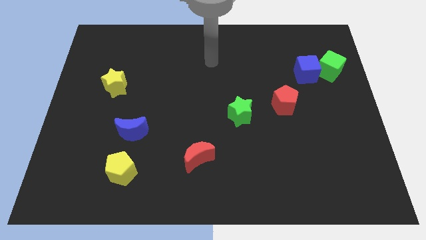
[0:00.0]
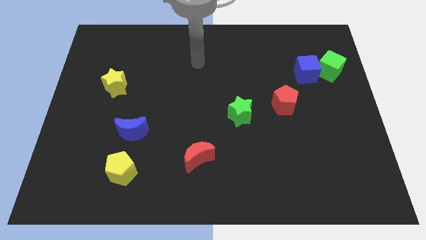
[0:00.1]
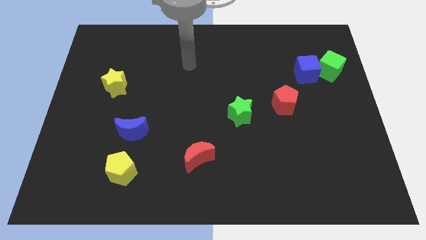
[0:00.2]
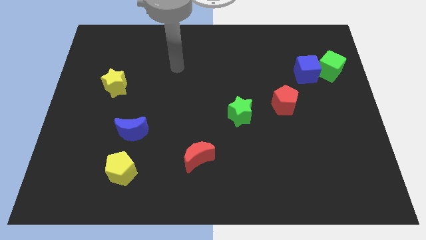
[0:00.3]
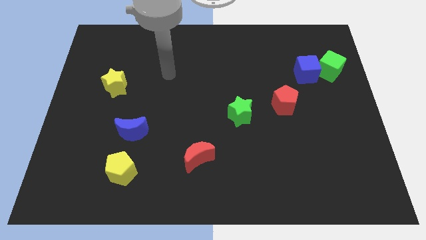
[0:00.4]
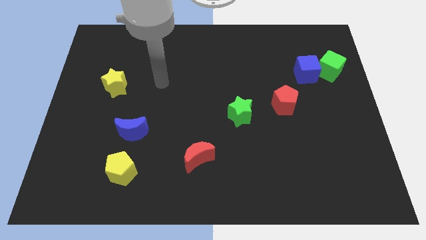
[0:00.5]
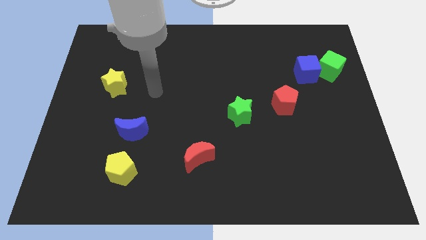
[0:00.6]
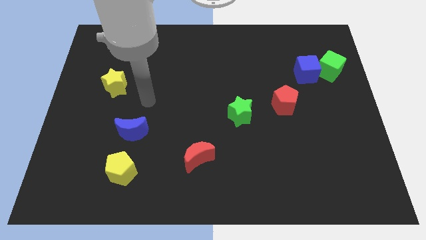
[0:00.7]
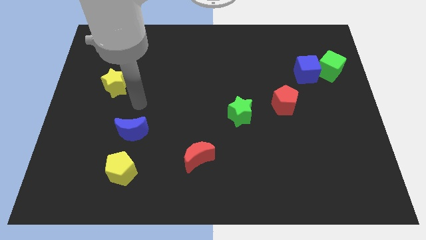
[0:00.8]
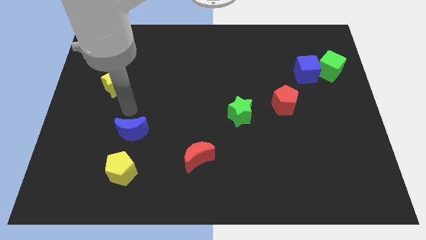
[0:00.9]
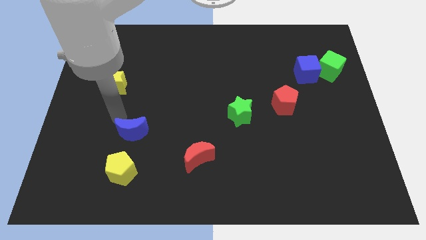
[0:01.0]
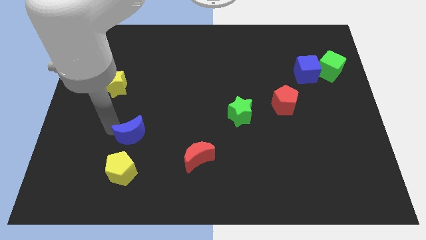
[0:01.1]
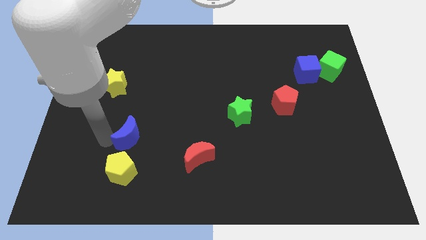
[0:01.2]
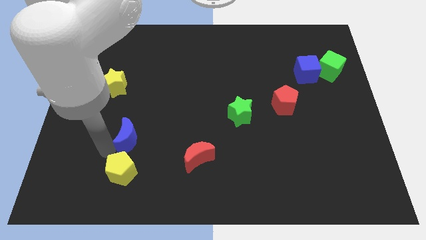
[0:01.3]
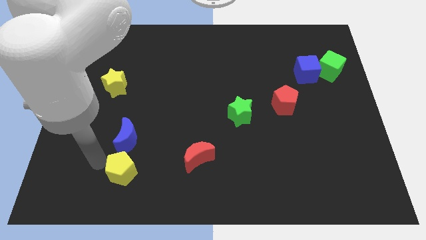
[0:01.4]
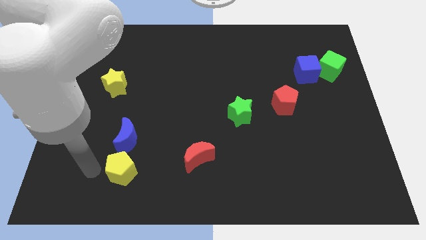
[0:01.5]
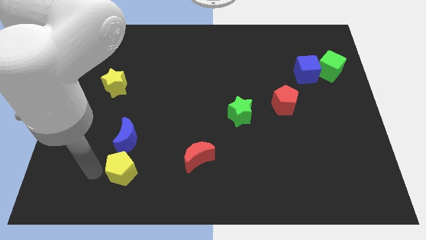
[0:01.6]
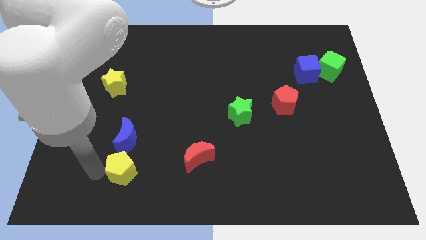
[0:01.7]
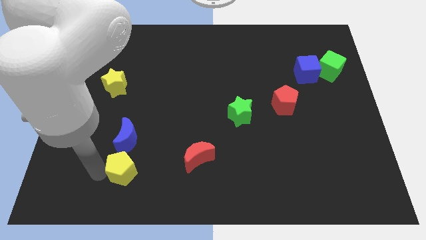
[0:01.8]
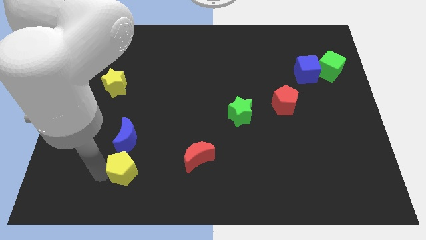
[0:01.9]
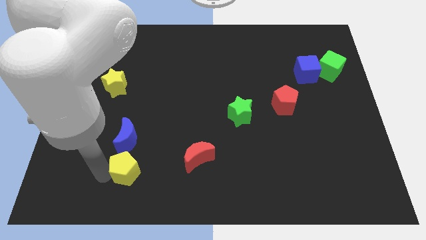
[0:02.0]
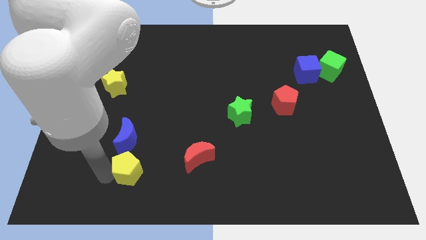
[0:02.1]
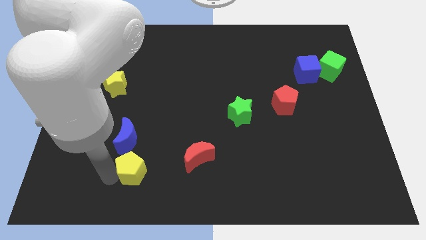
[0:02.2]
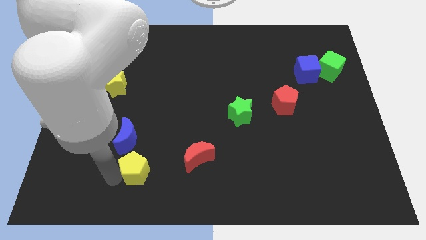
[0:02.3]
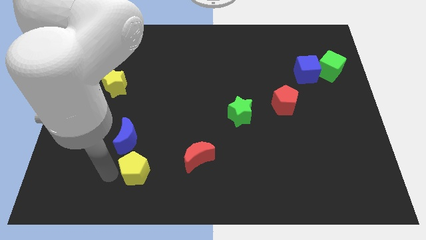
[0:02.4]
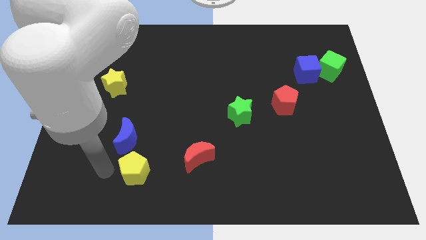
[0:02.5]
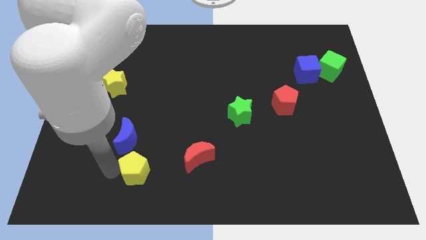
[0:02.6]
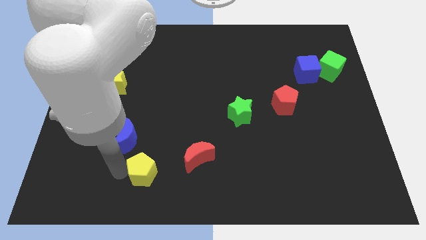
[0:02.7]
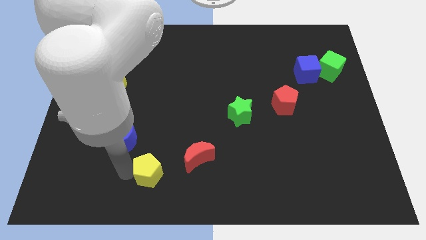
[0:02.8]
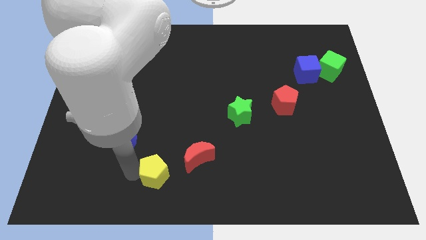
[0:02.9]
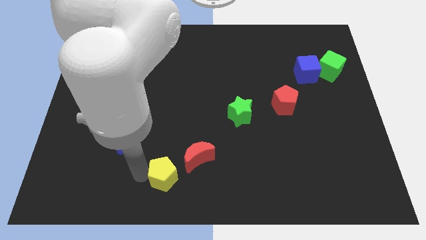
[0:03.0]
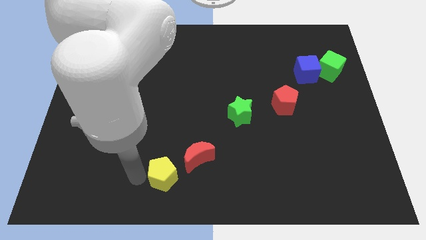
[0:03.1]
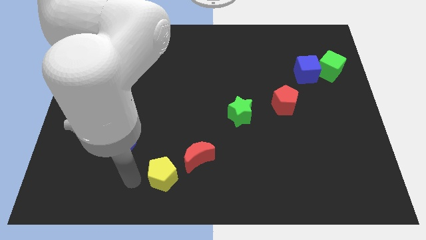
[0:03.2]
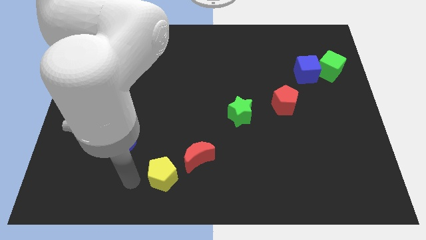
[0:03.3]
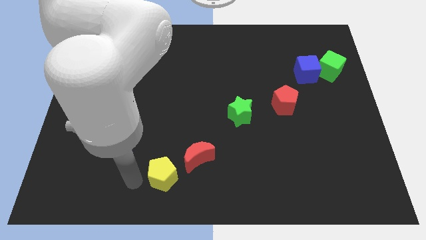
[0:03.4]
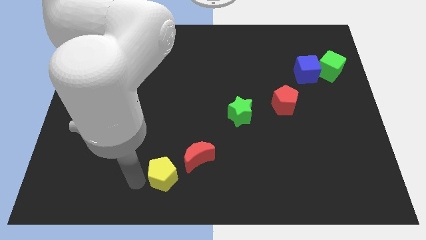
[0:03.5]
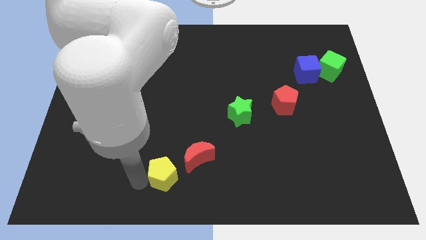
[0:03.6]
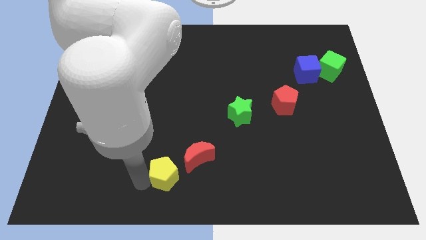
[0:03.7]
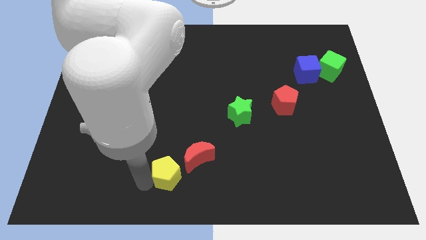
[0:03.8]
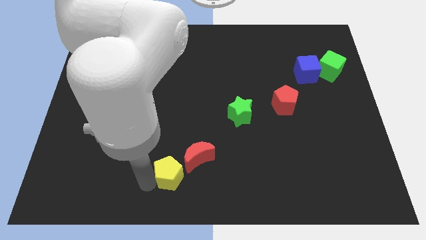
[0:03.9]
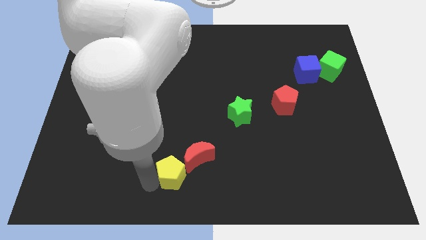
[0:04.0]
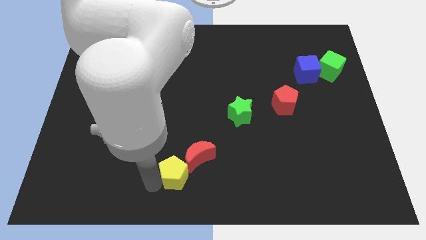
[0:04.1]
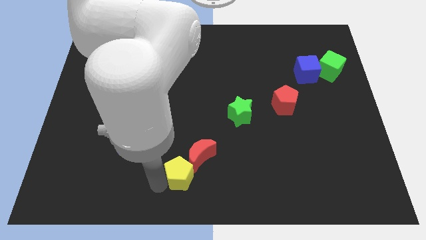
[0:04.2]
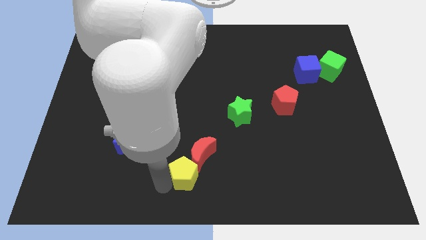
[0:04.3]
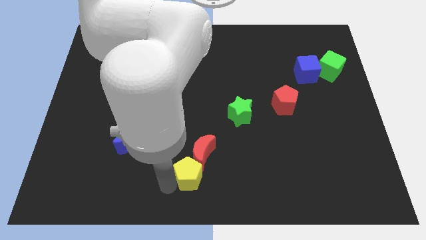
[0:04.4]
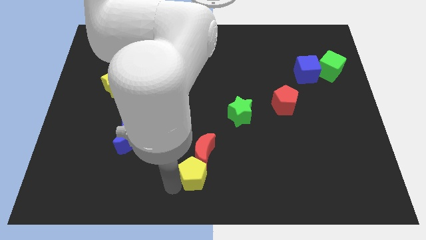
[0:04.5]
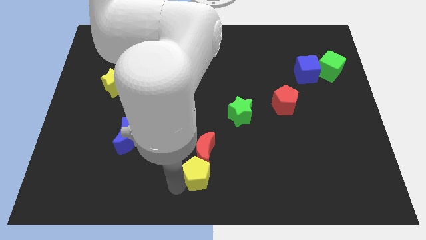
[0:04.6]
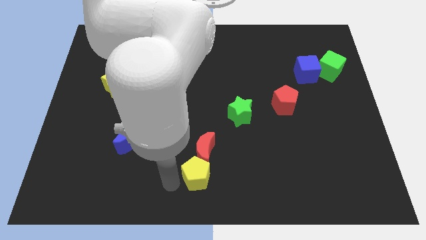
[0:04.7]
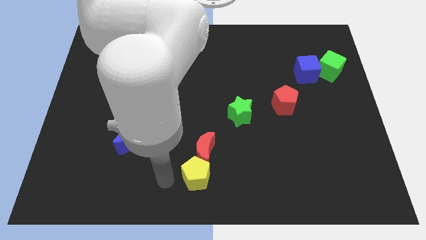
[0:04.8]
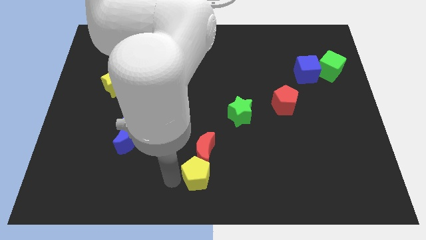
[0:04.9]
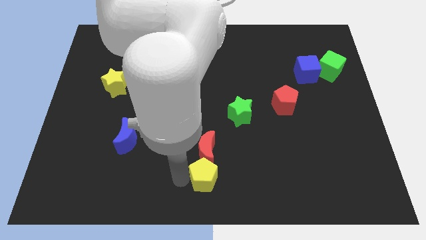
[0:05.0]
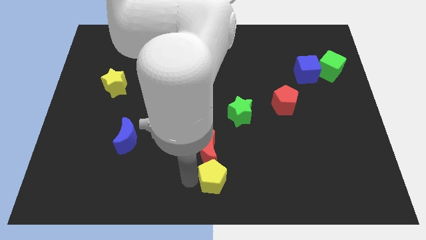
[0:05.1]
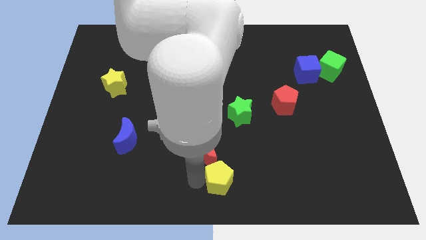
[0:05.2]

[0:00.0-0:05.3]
push the yellow pentagon to the right

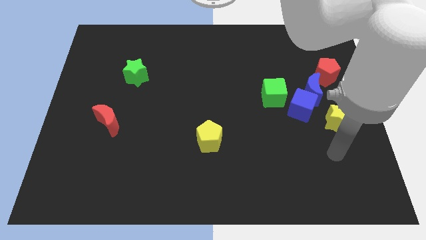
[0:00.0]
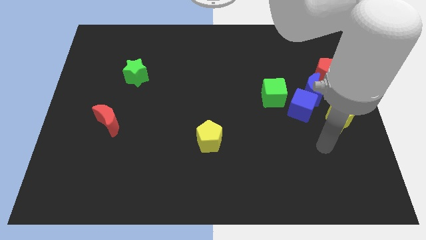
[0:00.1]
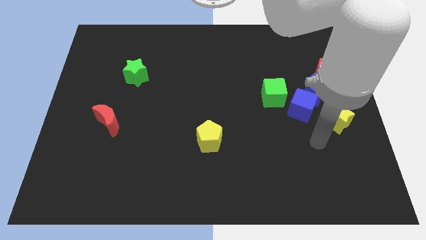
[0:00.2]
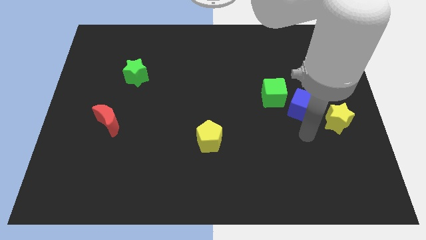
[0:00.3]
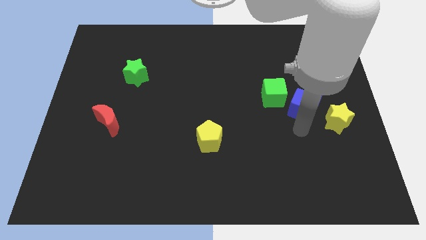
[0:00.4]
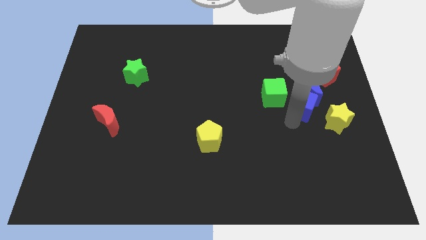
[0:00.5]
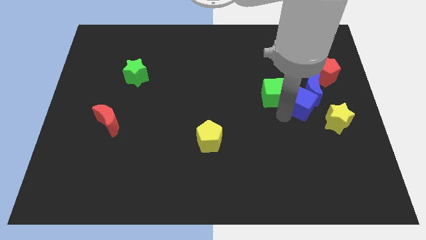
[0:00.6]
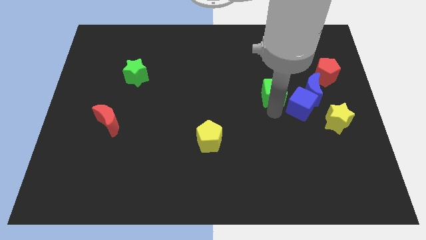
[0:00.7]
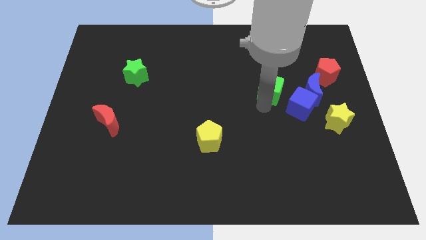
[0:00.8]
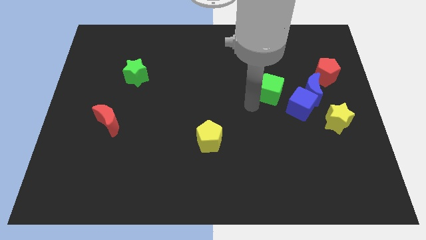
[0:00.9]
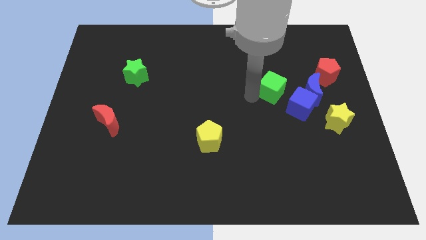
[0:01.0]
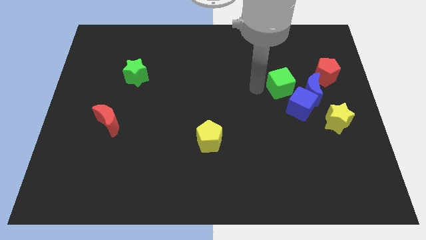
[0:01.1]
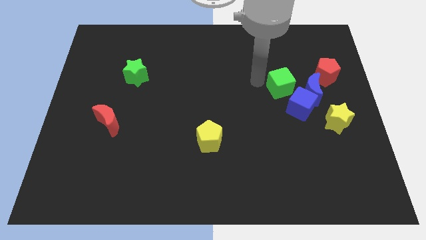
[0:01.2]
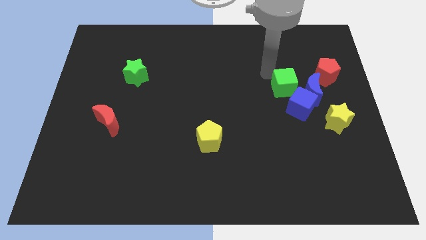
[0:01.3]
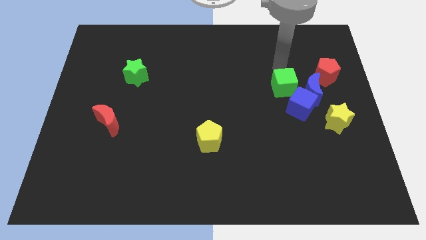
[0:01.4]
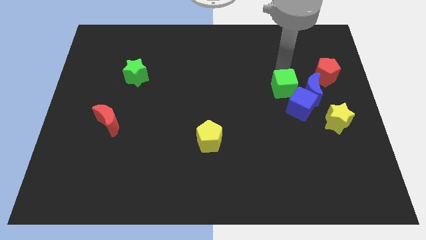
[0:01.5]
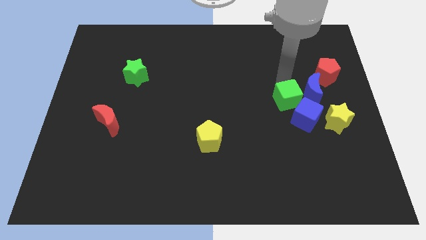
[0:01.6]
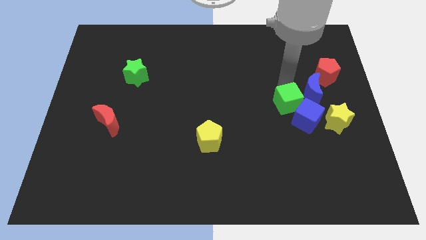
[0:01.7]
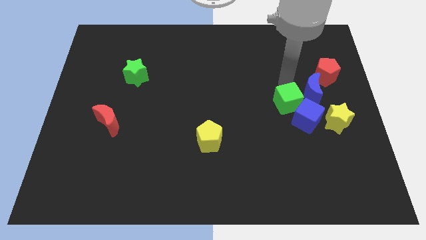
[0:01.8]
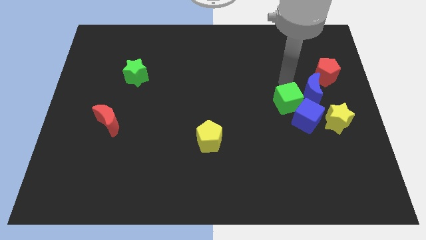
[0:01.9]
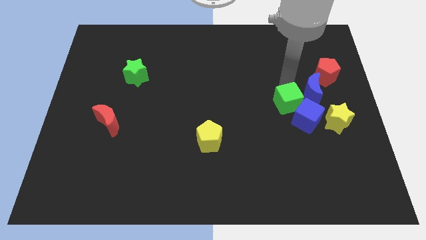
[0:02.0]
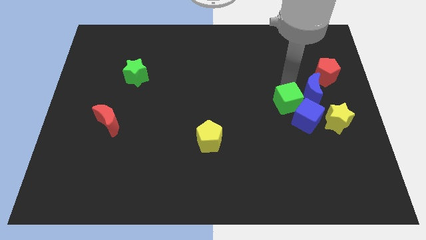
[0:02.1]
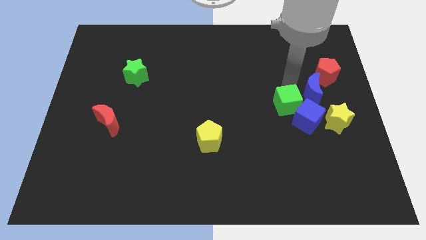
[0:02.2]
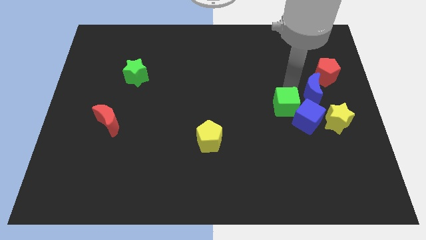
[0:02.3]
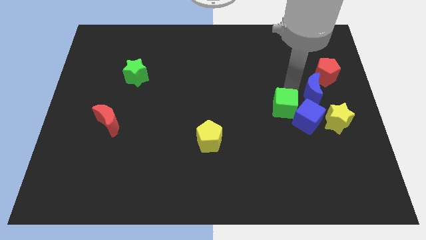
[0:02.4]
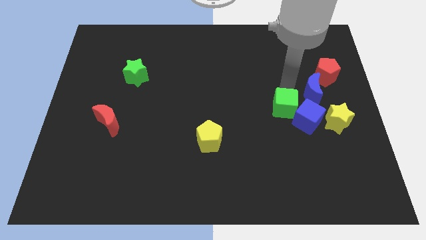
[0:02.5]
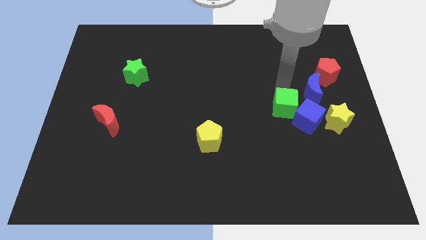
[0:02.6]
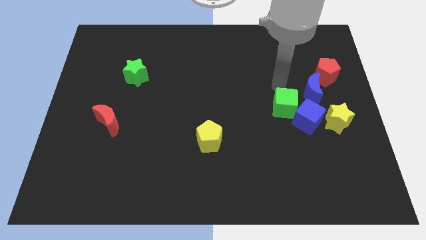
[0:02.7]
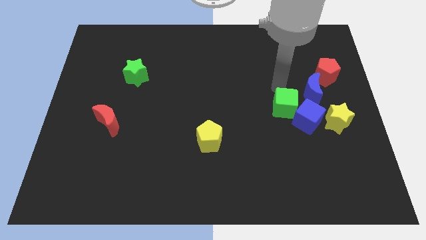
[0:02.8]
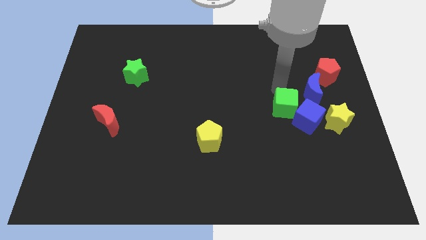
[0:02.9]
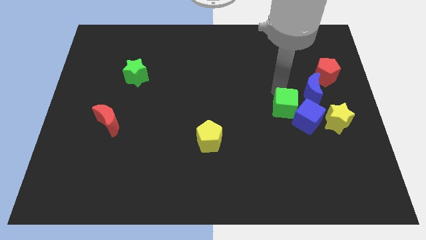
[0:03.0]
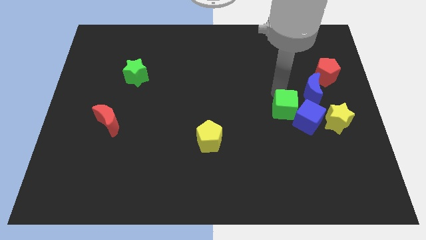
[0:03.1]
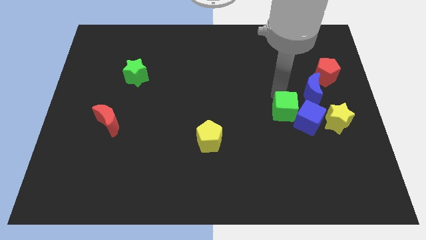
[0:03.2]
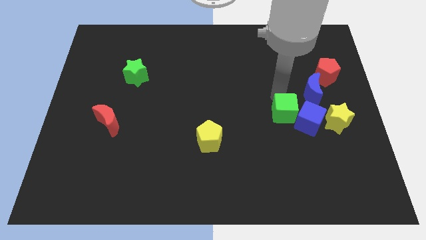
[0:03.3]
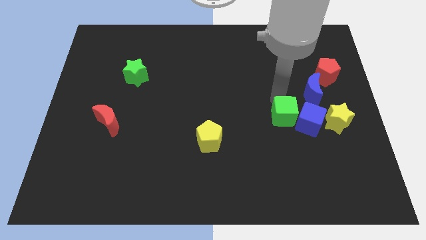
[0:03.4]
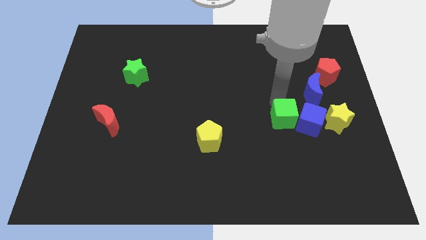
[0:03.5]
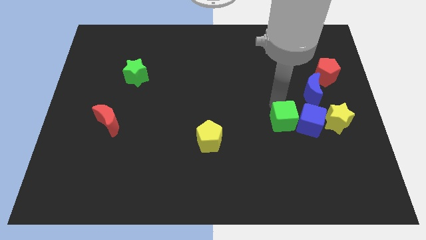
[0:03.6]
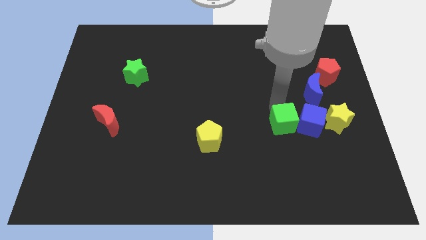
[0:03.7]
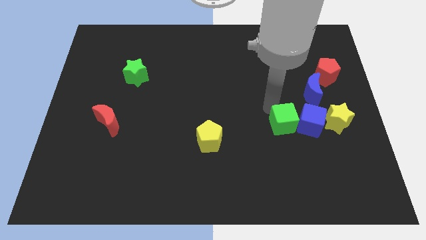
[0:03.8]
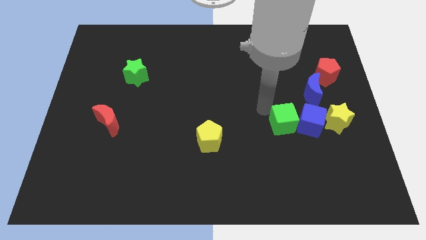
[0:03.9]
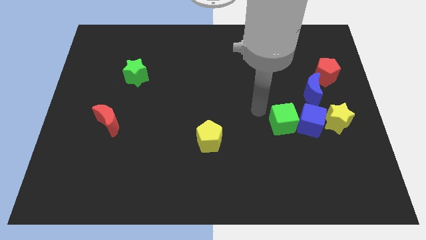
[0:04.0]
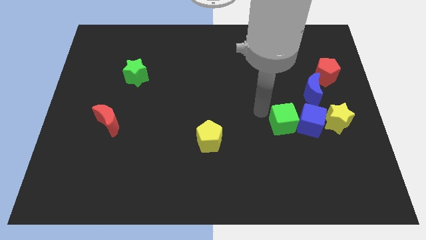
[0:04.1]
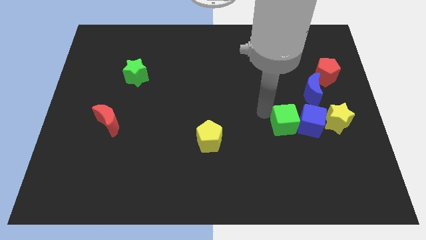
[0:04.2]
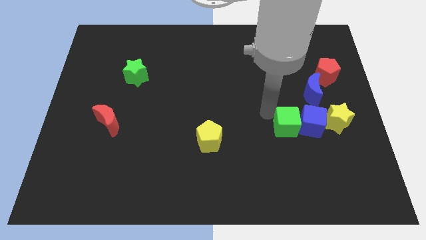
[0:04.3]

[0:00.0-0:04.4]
slightly slide the green cube diagonally down and right
